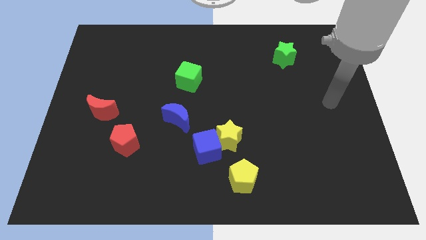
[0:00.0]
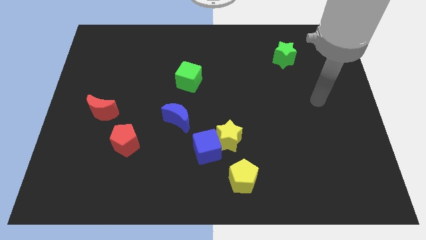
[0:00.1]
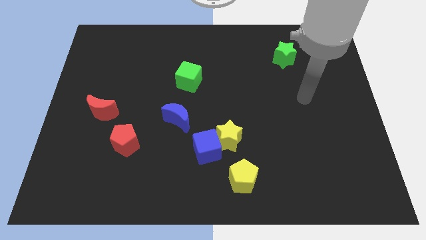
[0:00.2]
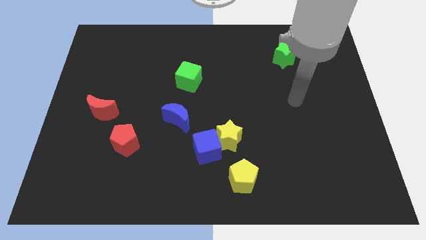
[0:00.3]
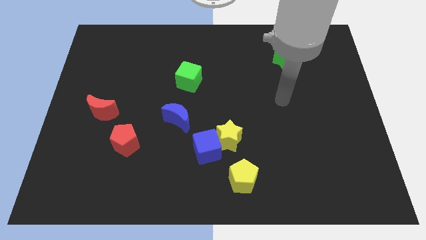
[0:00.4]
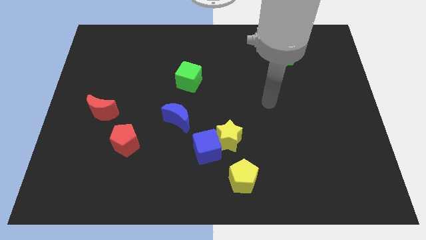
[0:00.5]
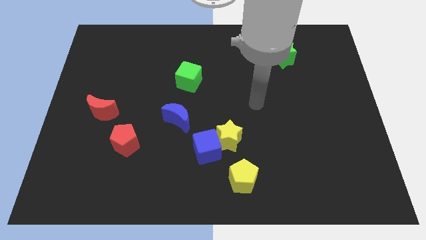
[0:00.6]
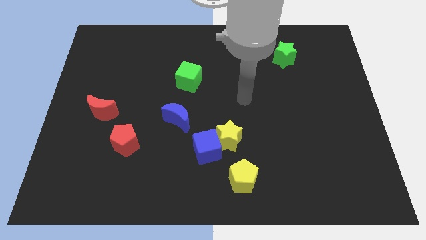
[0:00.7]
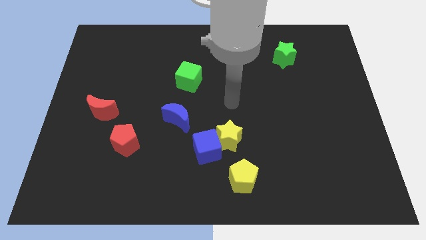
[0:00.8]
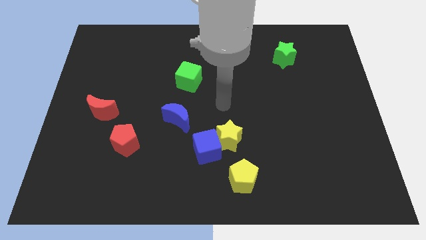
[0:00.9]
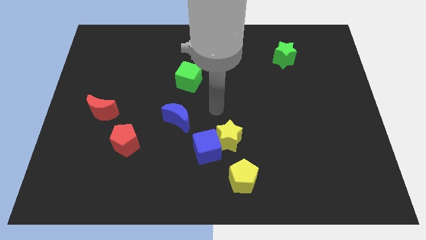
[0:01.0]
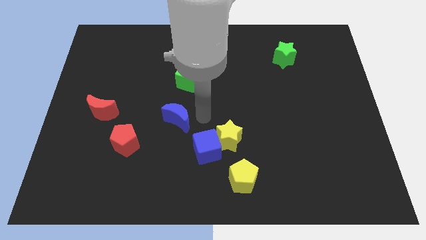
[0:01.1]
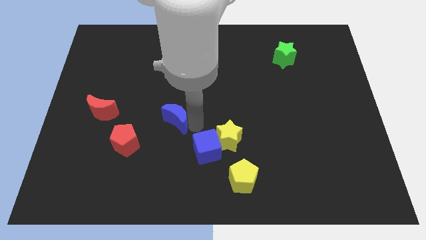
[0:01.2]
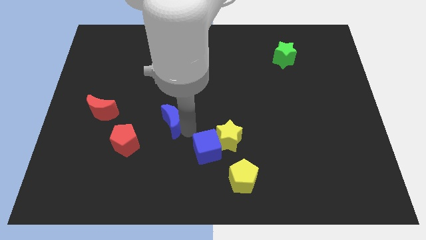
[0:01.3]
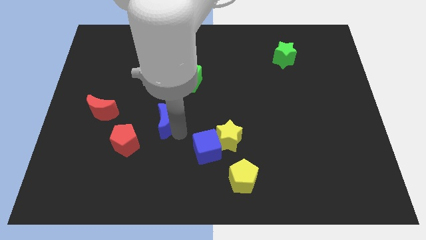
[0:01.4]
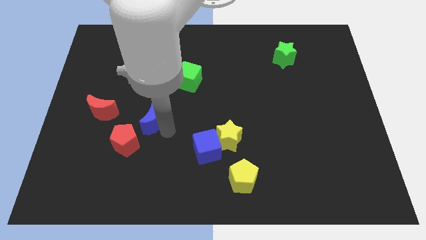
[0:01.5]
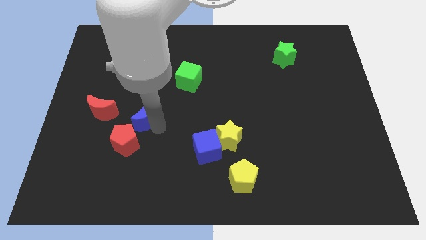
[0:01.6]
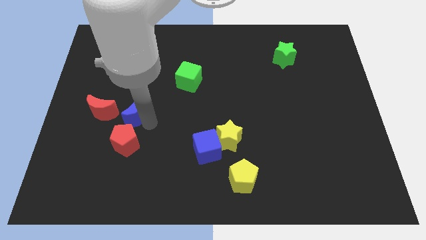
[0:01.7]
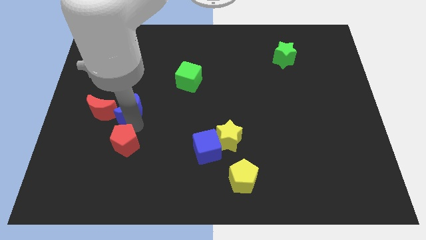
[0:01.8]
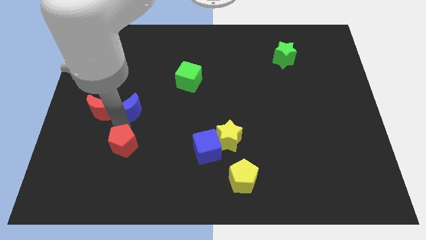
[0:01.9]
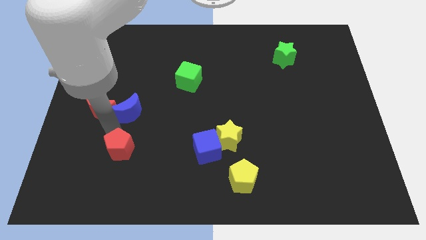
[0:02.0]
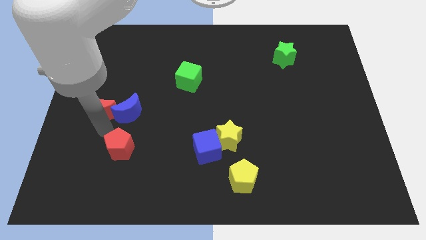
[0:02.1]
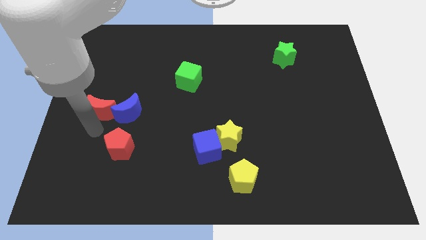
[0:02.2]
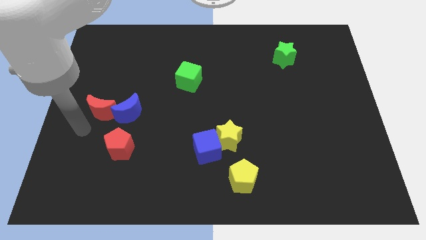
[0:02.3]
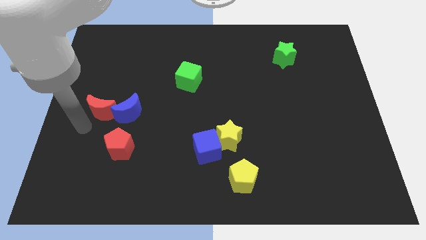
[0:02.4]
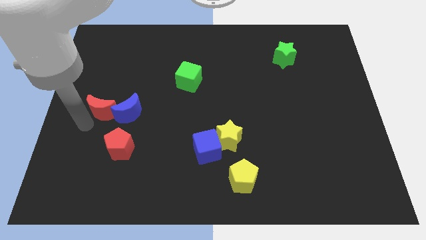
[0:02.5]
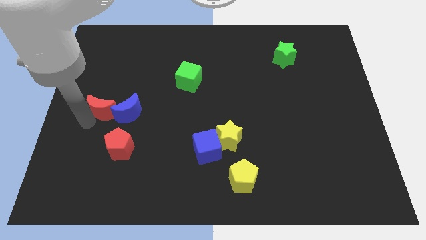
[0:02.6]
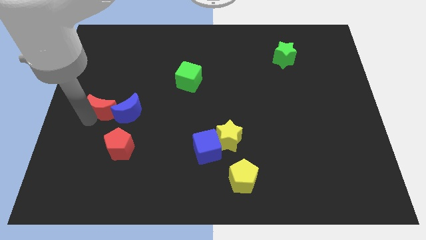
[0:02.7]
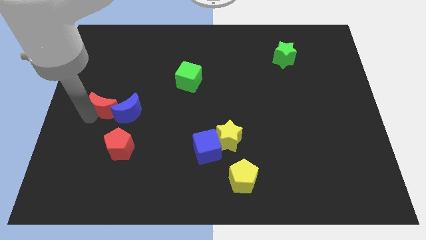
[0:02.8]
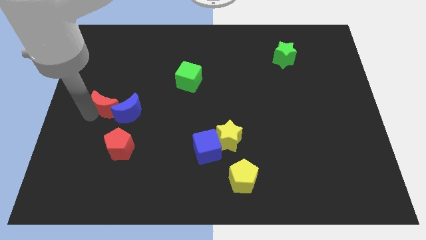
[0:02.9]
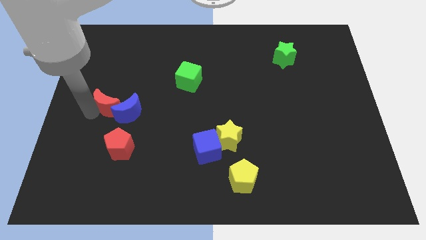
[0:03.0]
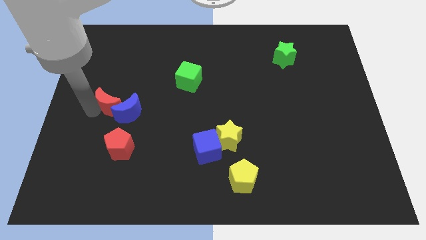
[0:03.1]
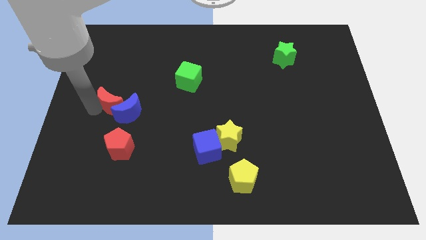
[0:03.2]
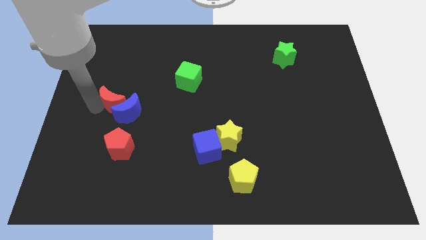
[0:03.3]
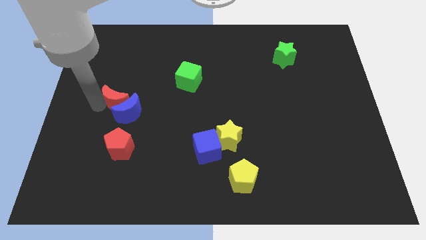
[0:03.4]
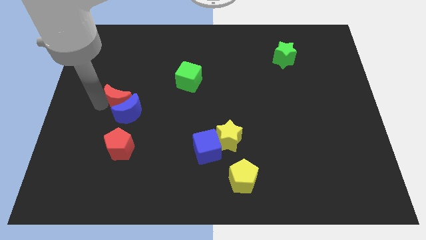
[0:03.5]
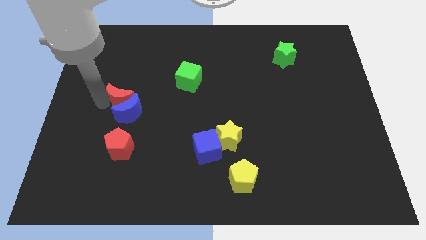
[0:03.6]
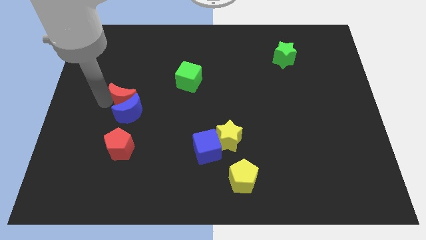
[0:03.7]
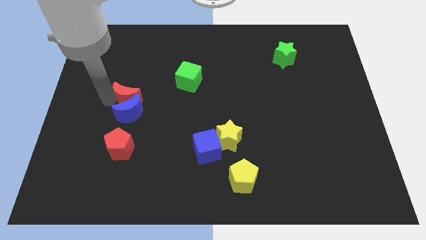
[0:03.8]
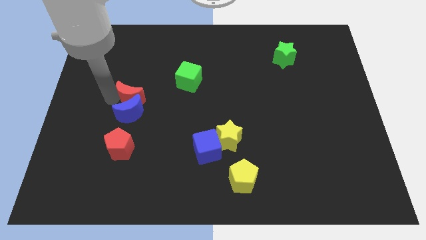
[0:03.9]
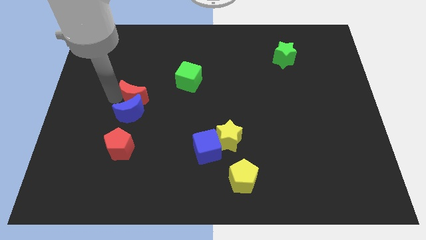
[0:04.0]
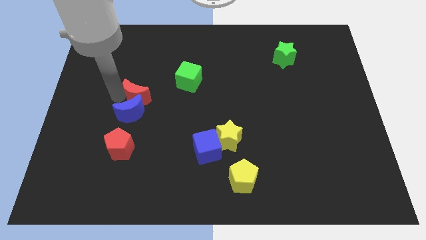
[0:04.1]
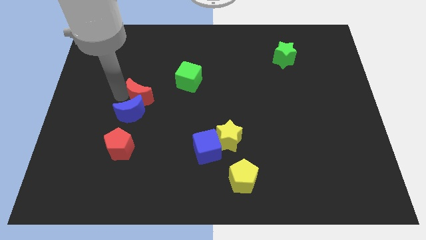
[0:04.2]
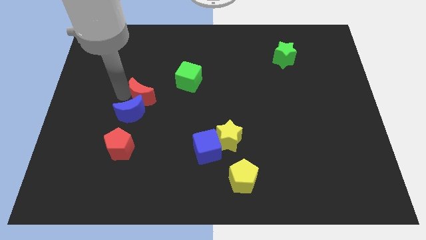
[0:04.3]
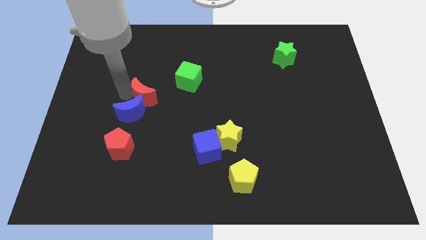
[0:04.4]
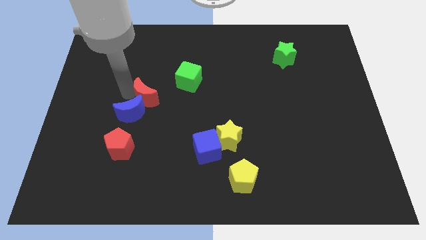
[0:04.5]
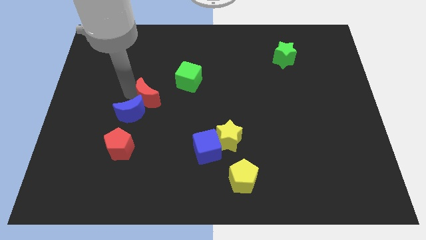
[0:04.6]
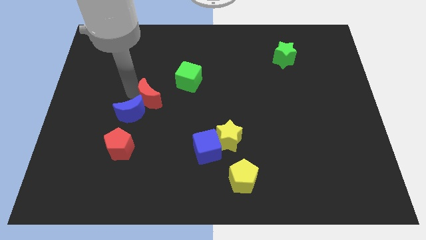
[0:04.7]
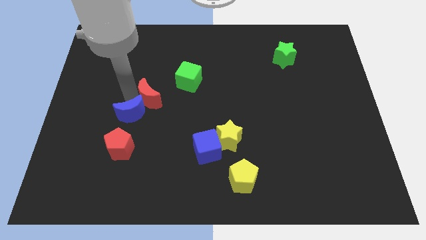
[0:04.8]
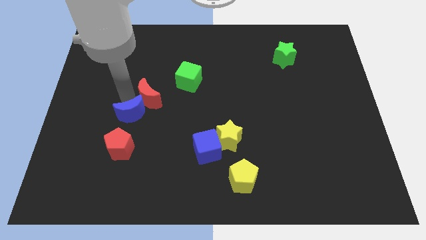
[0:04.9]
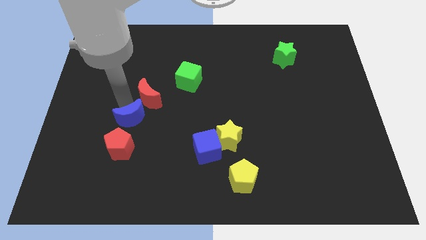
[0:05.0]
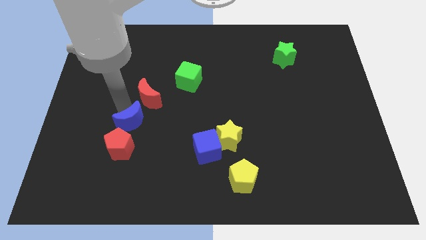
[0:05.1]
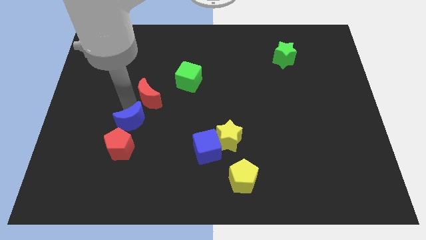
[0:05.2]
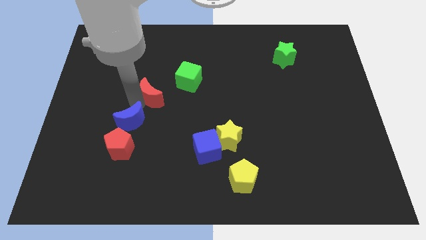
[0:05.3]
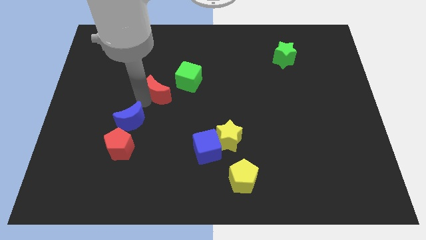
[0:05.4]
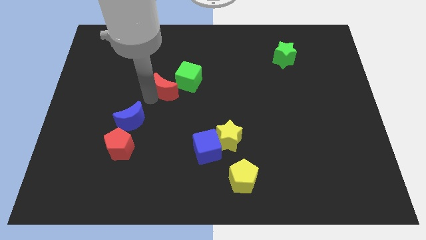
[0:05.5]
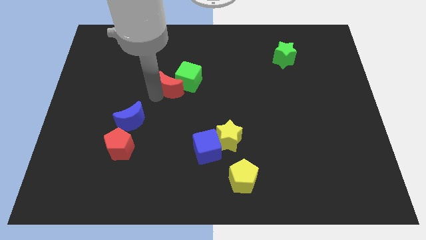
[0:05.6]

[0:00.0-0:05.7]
put the red moon close to the green cube
